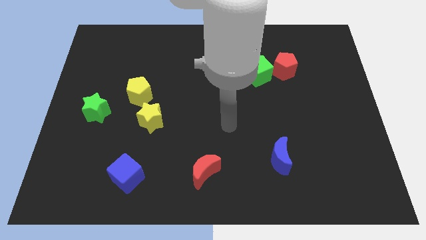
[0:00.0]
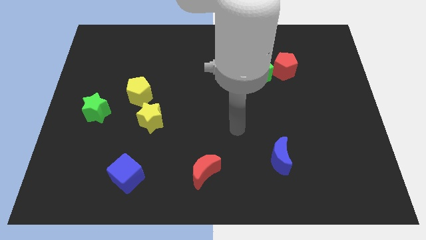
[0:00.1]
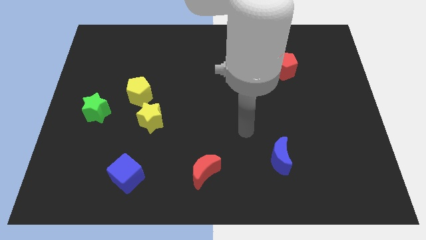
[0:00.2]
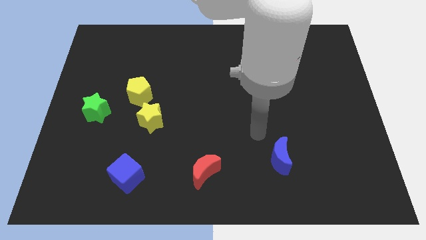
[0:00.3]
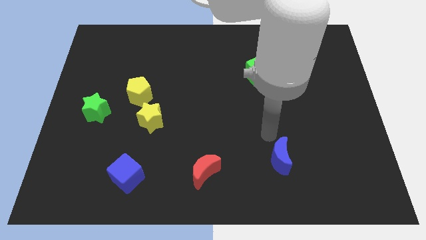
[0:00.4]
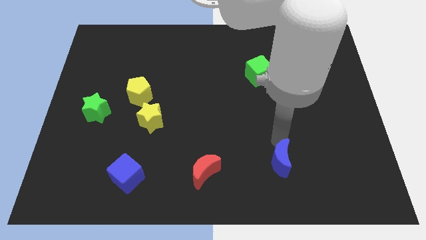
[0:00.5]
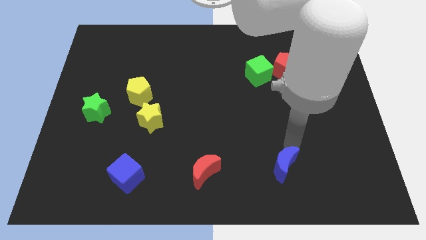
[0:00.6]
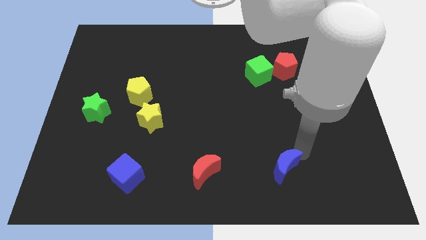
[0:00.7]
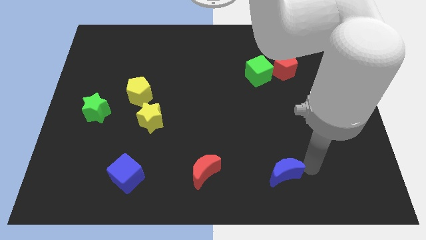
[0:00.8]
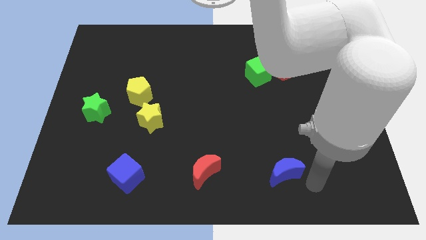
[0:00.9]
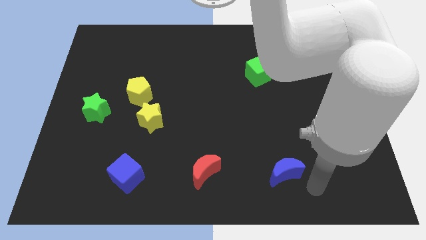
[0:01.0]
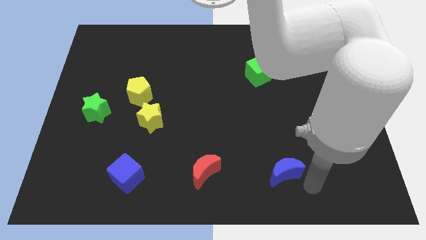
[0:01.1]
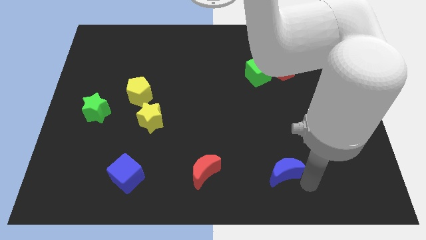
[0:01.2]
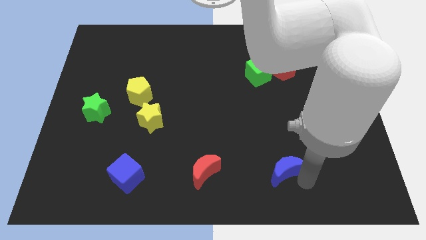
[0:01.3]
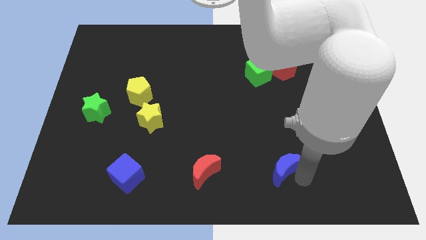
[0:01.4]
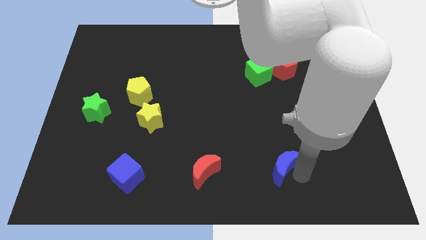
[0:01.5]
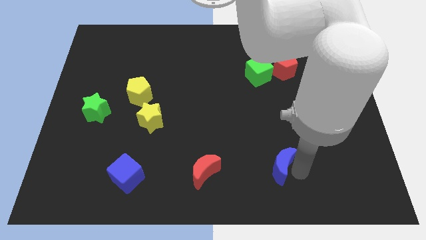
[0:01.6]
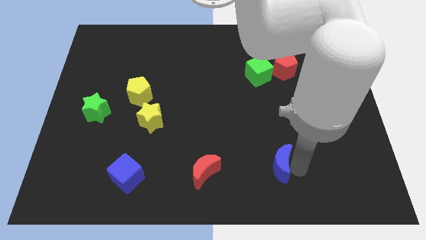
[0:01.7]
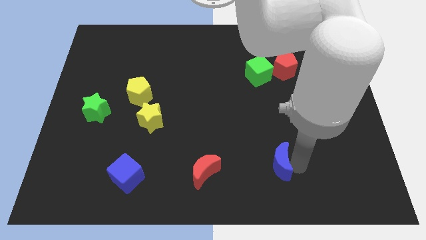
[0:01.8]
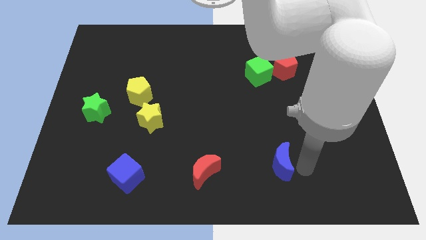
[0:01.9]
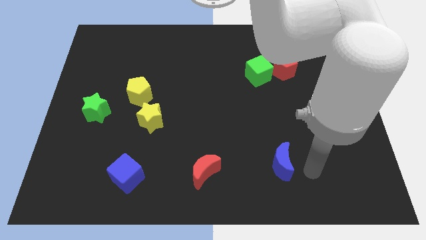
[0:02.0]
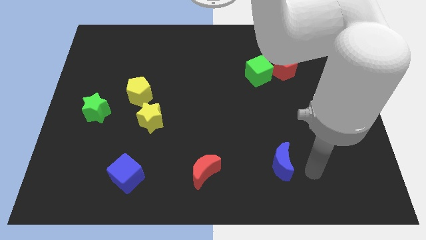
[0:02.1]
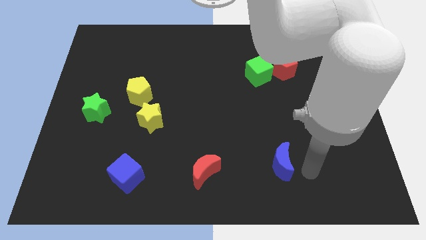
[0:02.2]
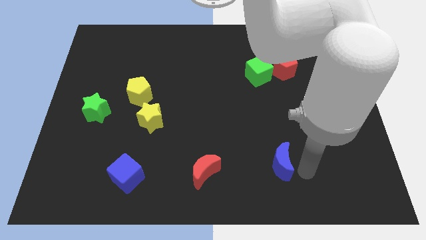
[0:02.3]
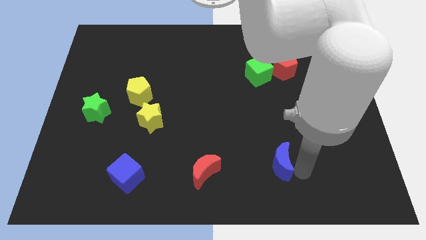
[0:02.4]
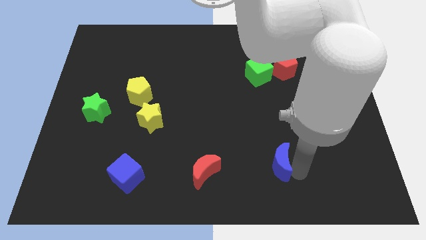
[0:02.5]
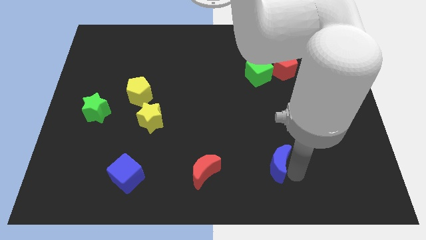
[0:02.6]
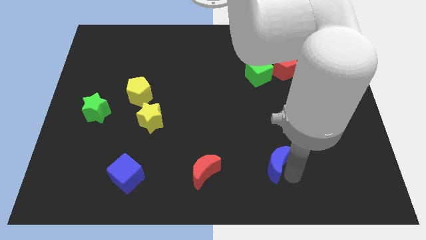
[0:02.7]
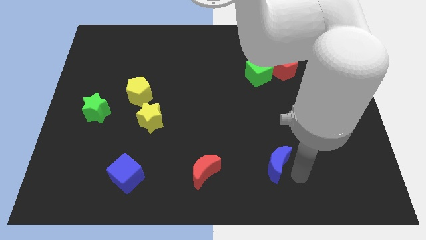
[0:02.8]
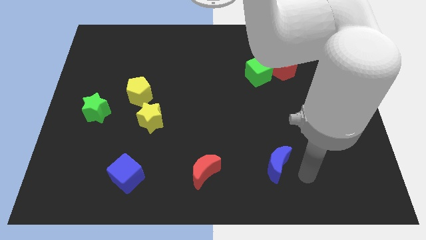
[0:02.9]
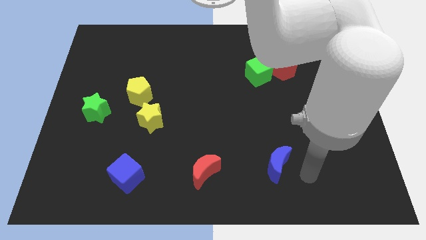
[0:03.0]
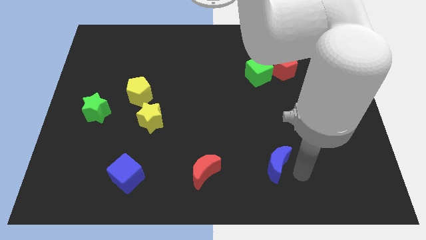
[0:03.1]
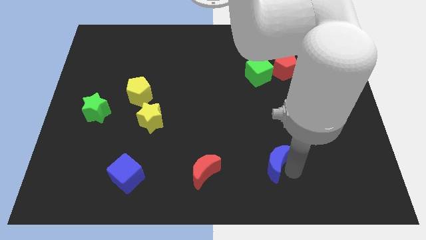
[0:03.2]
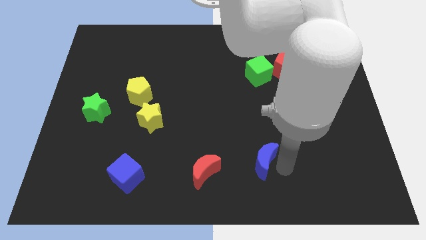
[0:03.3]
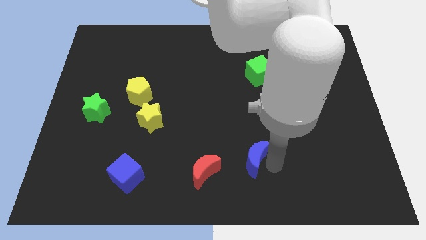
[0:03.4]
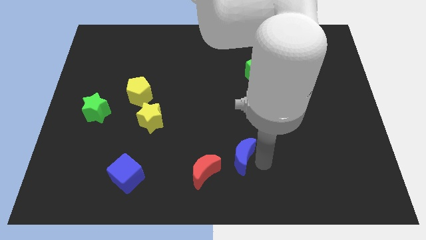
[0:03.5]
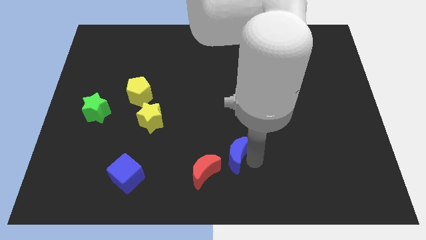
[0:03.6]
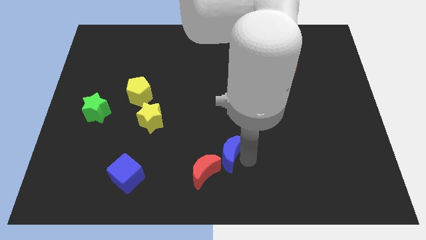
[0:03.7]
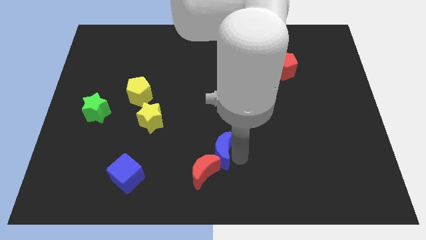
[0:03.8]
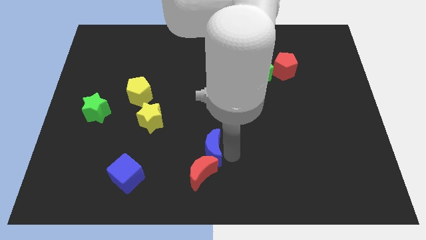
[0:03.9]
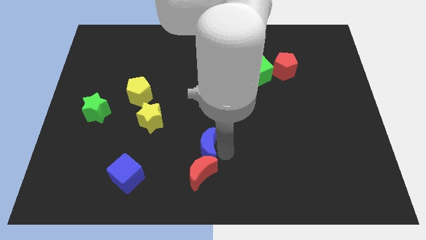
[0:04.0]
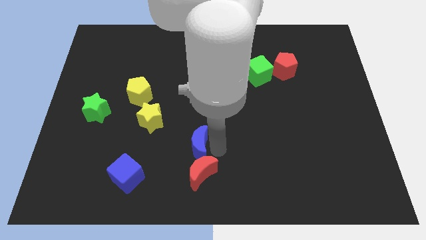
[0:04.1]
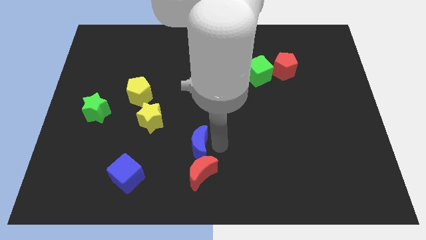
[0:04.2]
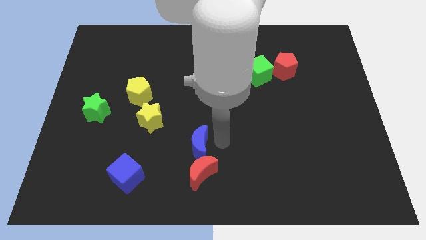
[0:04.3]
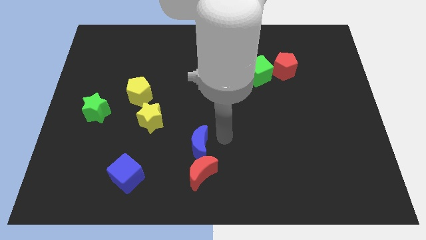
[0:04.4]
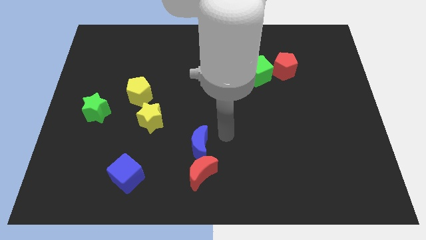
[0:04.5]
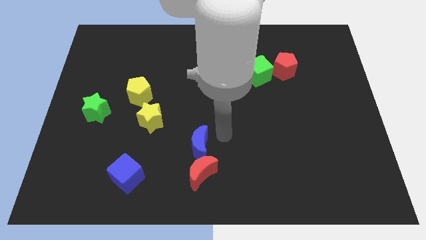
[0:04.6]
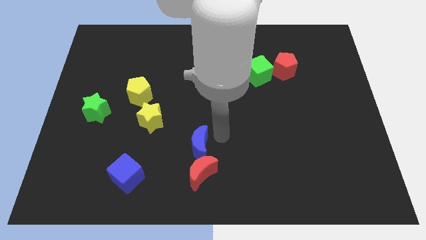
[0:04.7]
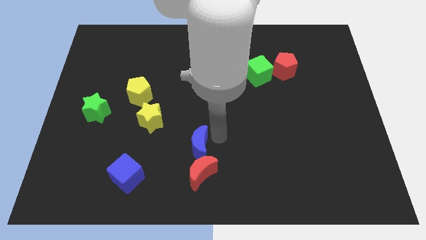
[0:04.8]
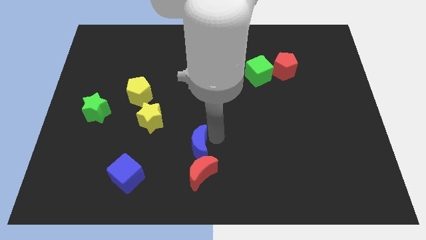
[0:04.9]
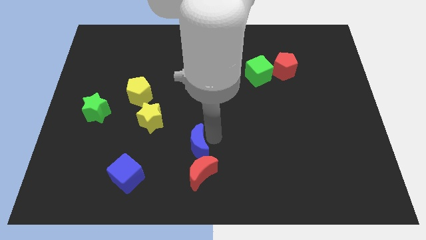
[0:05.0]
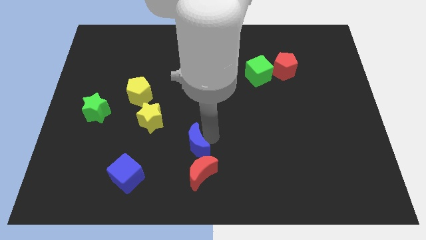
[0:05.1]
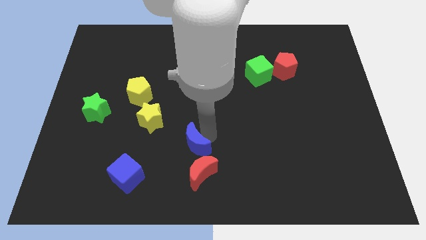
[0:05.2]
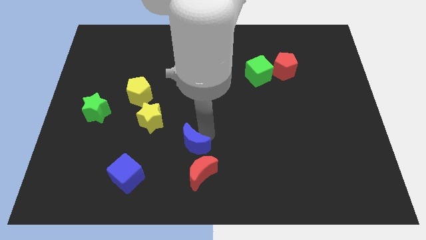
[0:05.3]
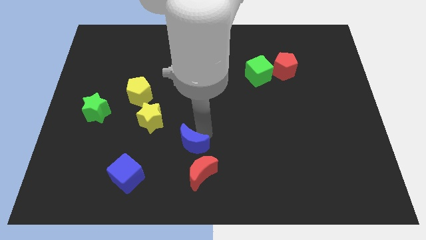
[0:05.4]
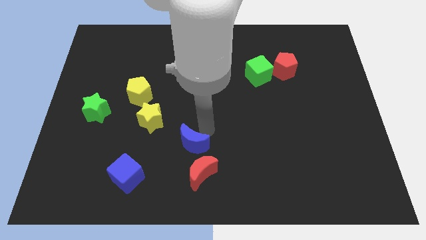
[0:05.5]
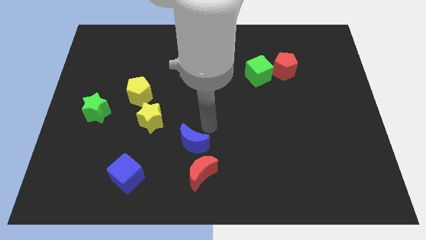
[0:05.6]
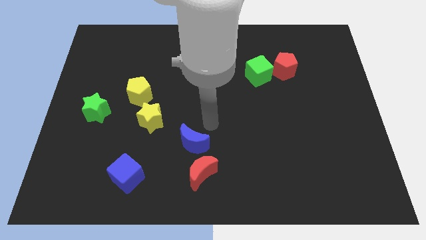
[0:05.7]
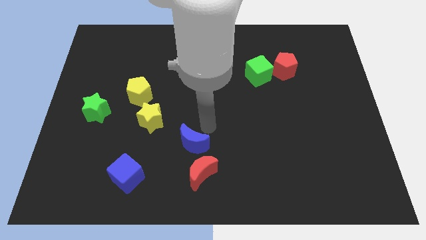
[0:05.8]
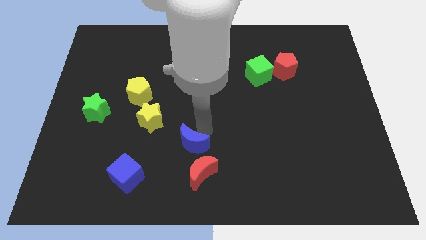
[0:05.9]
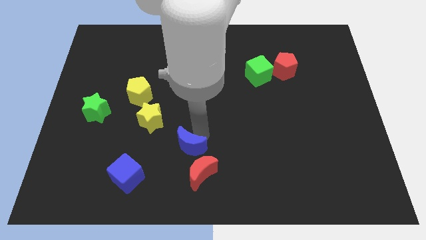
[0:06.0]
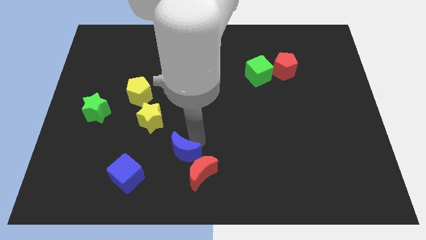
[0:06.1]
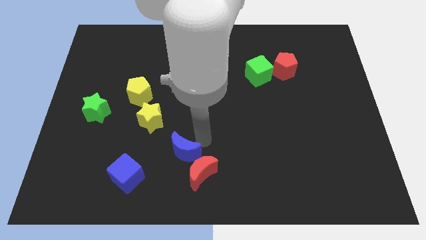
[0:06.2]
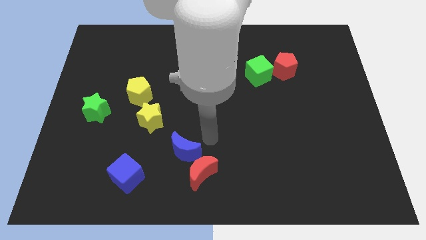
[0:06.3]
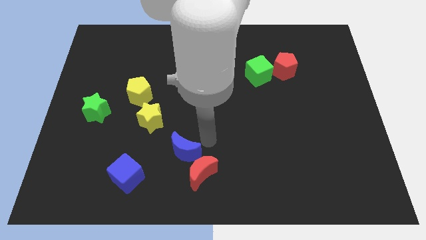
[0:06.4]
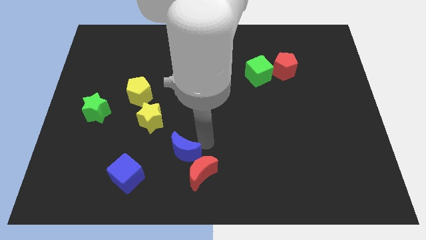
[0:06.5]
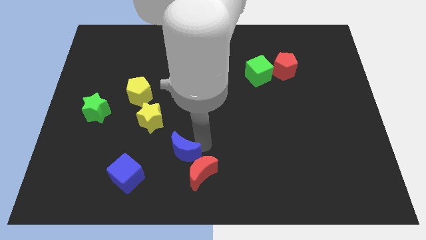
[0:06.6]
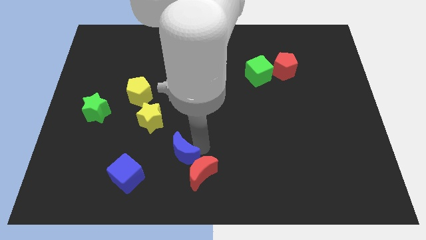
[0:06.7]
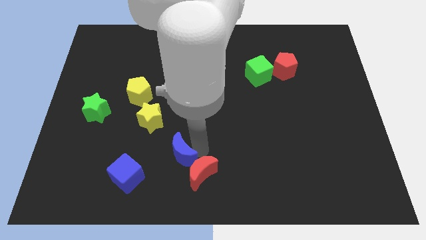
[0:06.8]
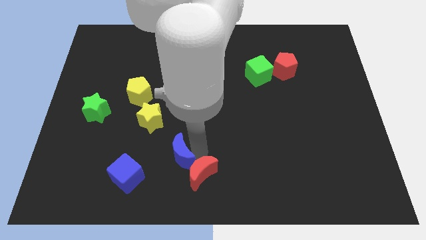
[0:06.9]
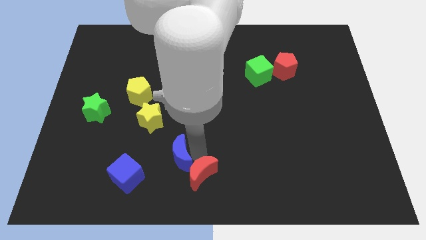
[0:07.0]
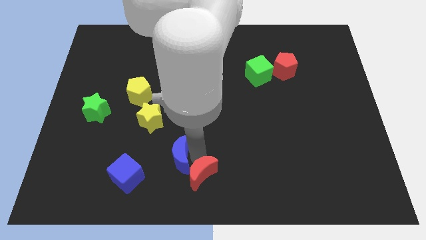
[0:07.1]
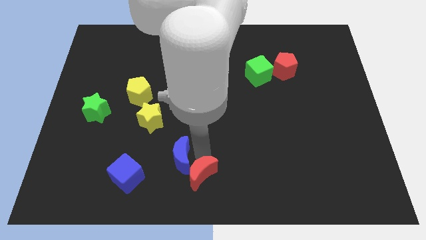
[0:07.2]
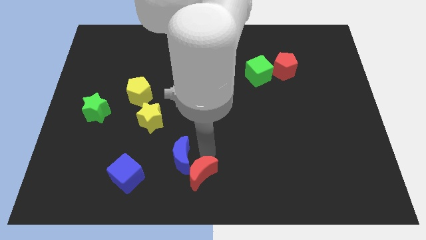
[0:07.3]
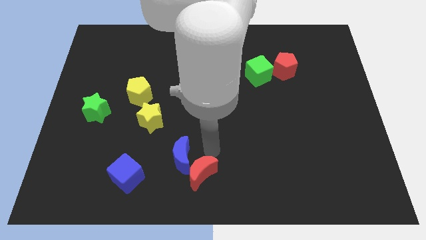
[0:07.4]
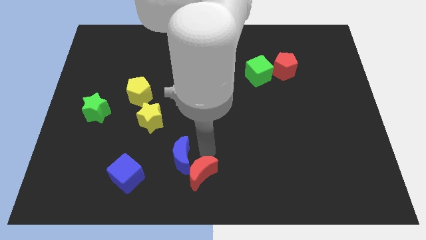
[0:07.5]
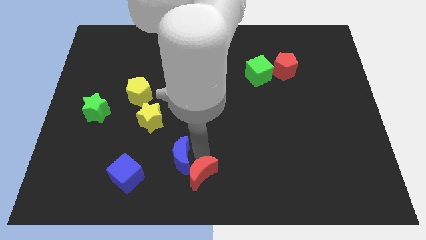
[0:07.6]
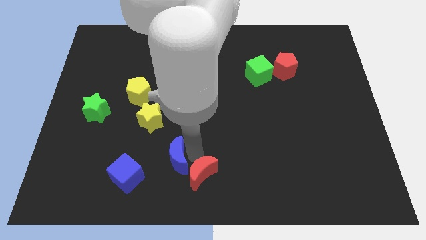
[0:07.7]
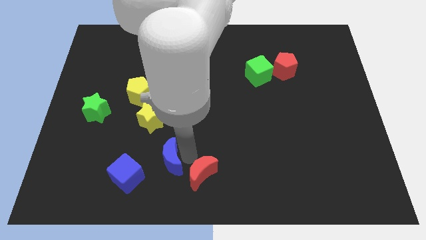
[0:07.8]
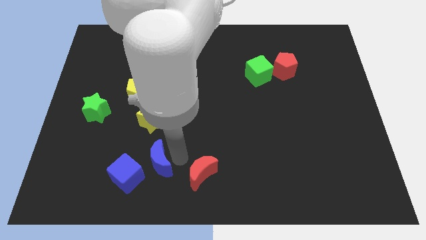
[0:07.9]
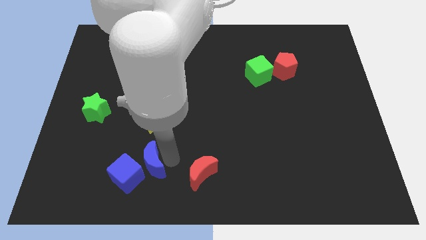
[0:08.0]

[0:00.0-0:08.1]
slide the blue moon towards the blue cube
